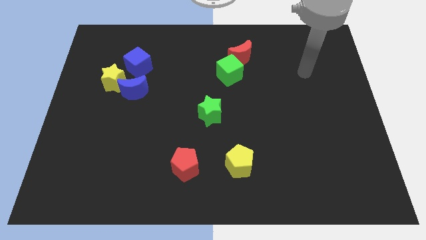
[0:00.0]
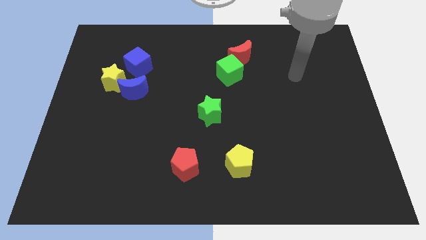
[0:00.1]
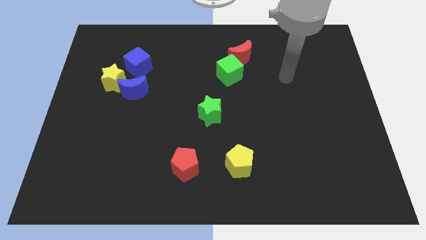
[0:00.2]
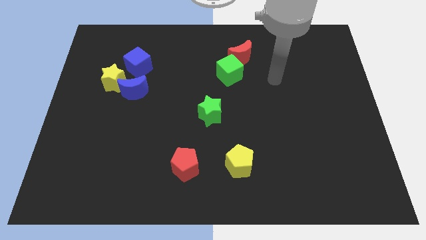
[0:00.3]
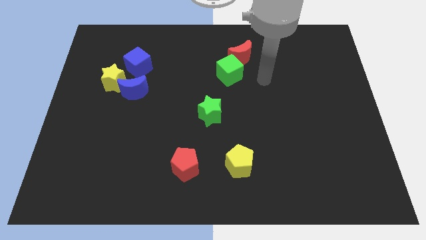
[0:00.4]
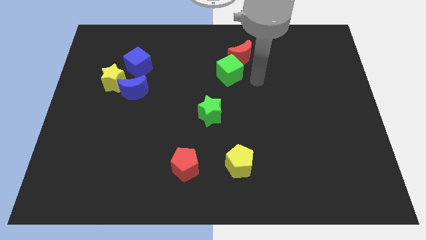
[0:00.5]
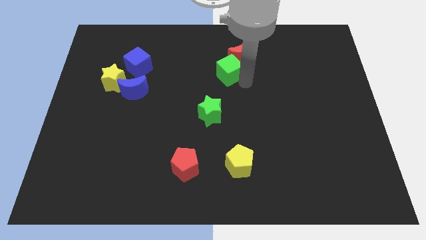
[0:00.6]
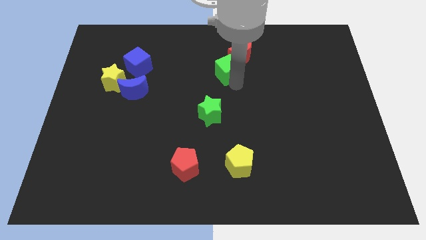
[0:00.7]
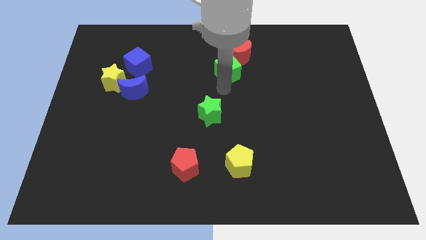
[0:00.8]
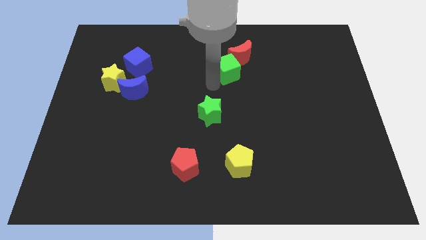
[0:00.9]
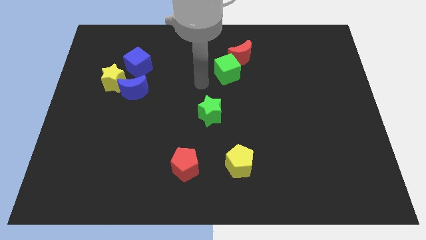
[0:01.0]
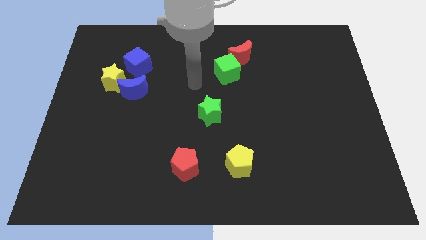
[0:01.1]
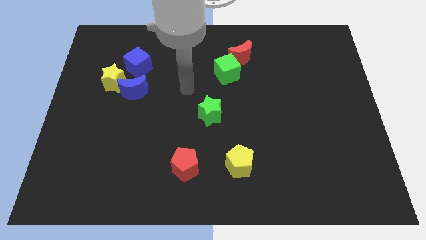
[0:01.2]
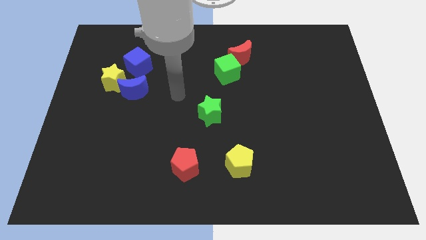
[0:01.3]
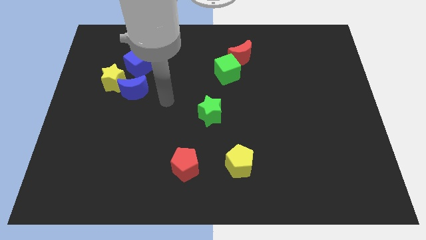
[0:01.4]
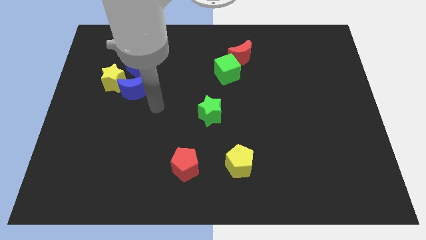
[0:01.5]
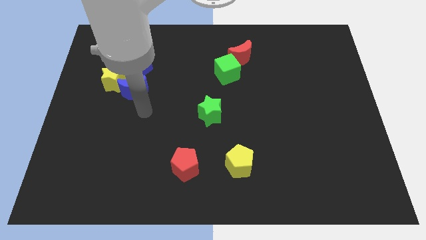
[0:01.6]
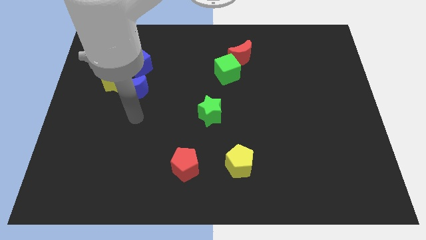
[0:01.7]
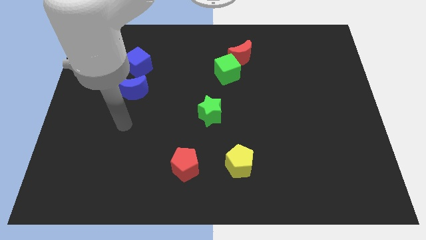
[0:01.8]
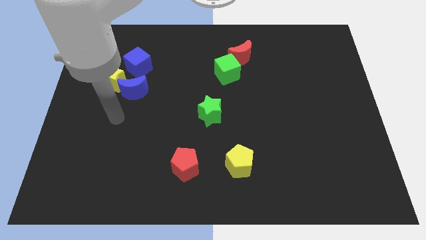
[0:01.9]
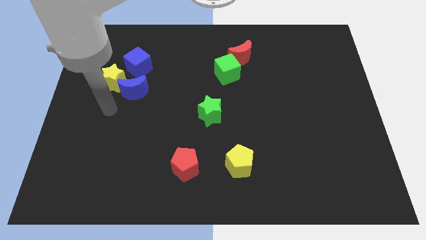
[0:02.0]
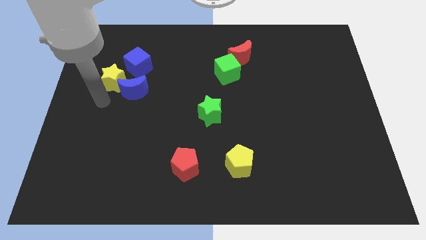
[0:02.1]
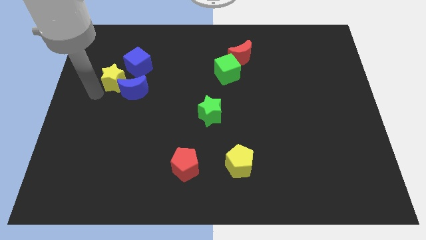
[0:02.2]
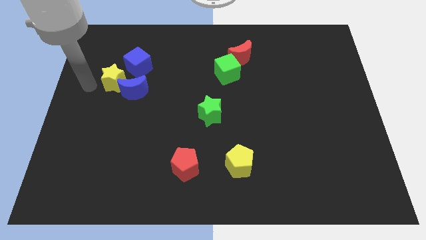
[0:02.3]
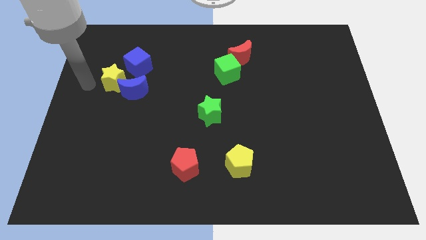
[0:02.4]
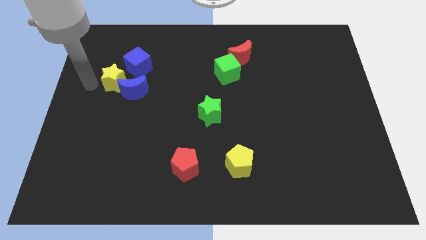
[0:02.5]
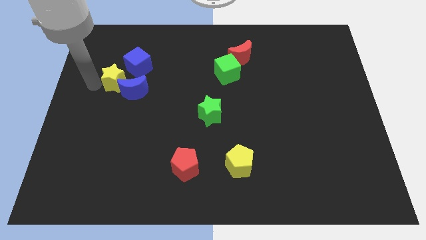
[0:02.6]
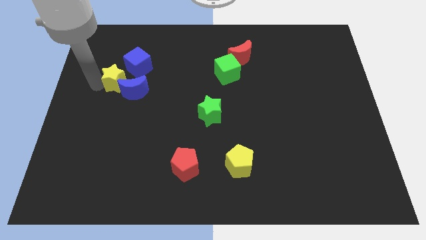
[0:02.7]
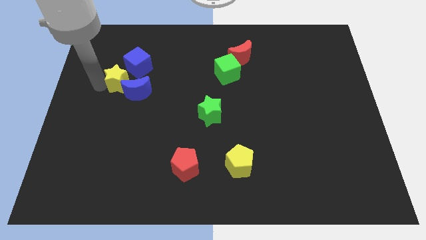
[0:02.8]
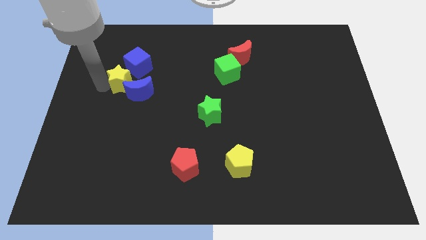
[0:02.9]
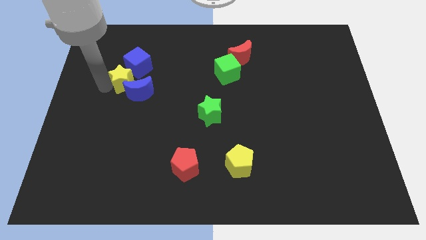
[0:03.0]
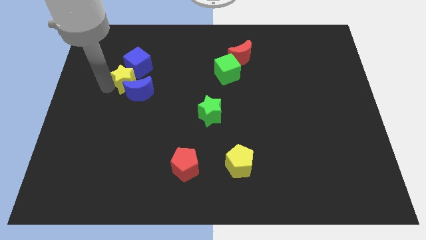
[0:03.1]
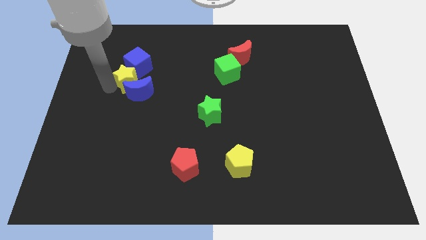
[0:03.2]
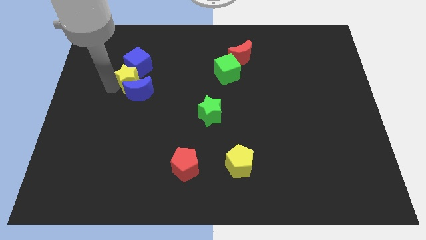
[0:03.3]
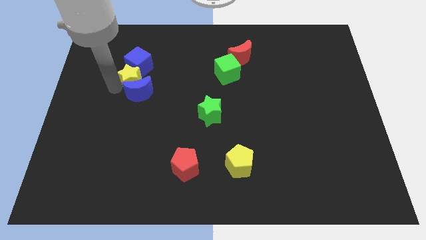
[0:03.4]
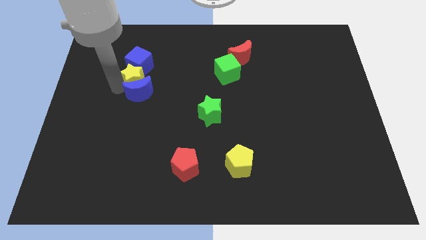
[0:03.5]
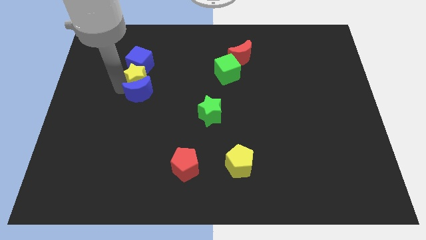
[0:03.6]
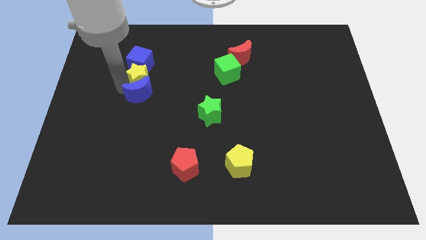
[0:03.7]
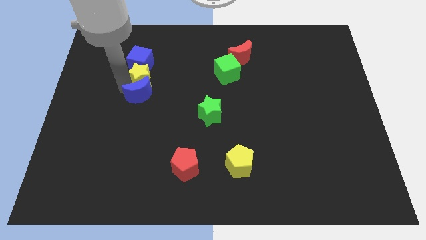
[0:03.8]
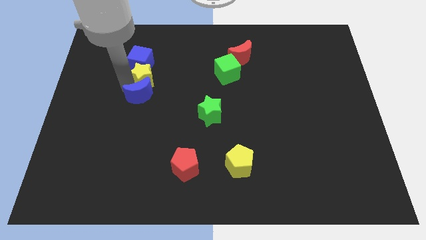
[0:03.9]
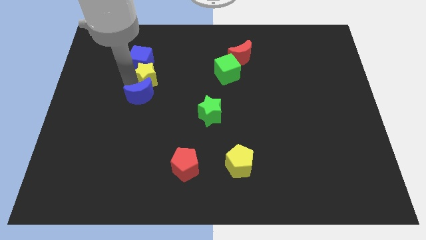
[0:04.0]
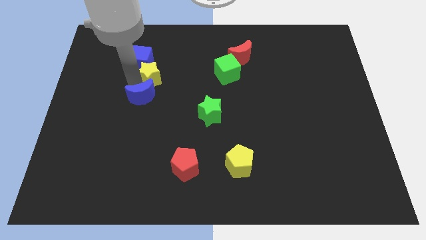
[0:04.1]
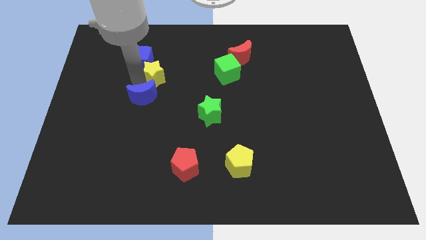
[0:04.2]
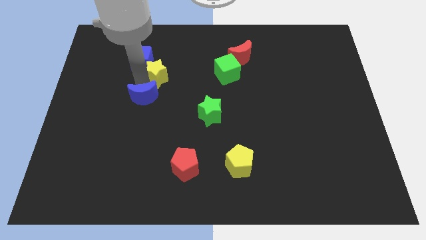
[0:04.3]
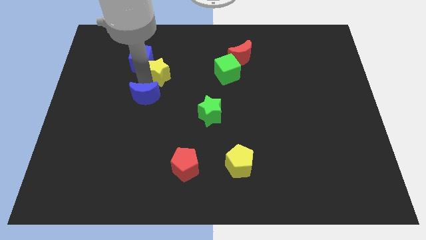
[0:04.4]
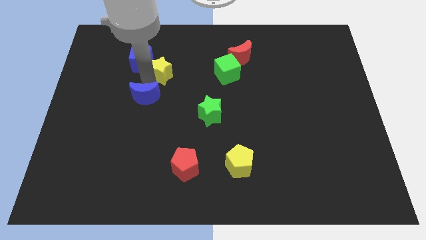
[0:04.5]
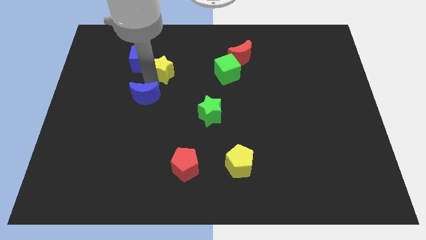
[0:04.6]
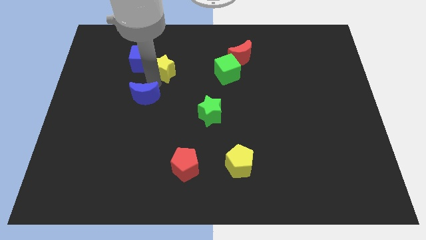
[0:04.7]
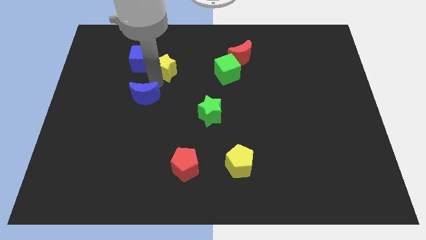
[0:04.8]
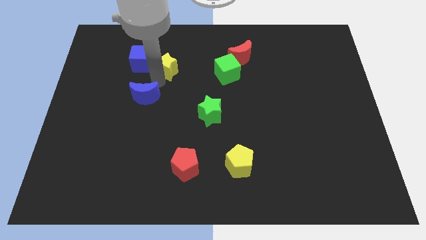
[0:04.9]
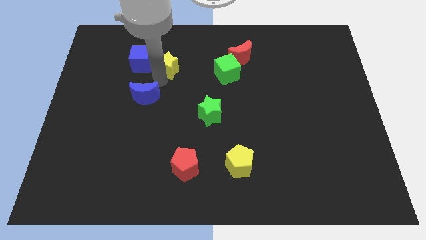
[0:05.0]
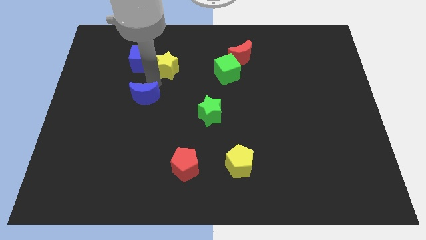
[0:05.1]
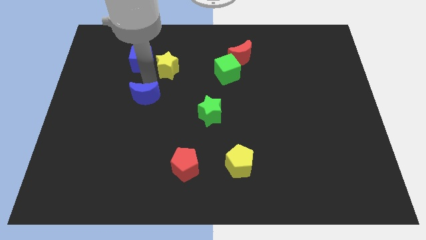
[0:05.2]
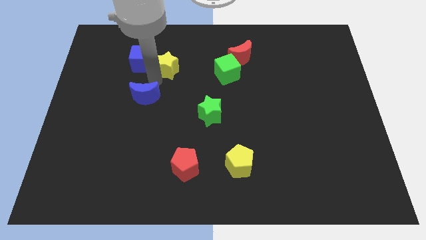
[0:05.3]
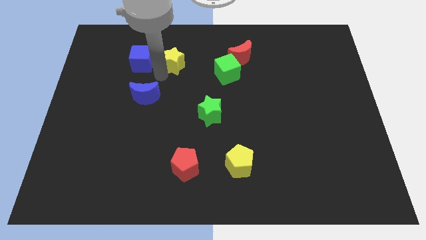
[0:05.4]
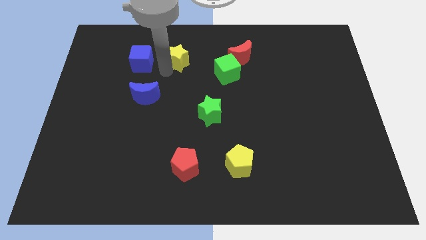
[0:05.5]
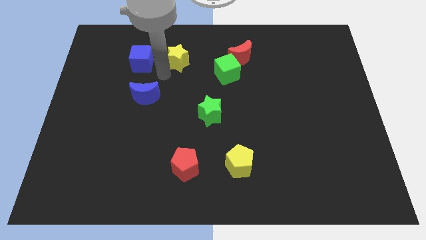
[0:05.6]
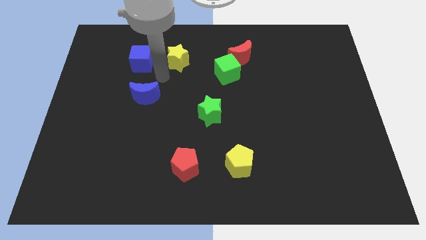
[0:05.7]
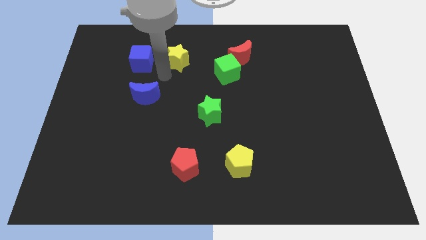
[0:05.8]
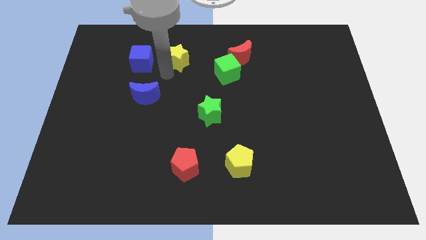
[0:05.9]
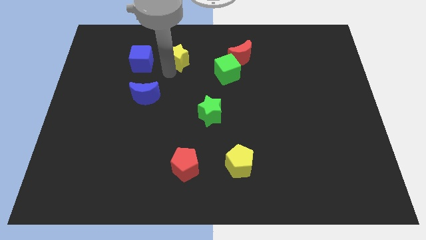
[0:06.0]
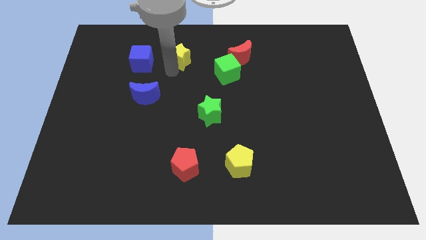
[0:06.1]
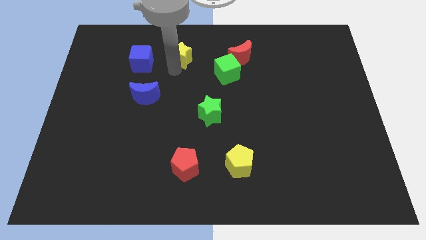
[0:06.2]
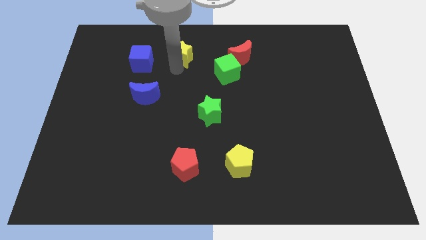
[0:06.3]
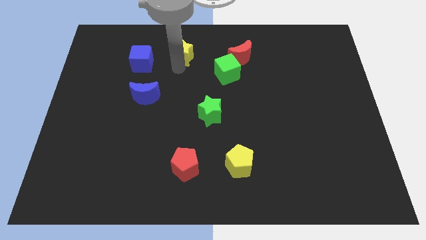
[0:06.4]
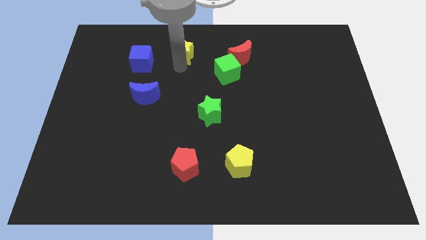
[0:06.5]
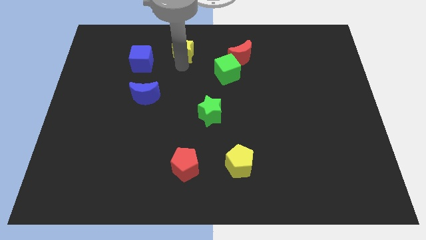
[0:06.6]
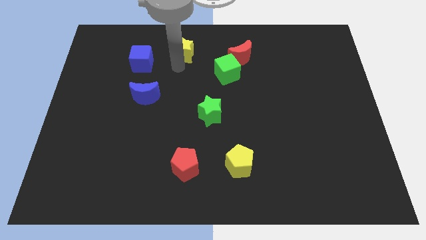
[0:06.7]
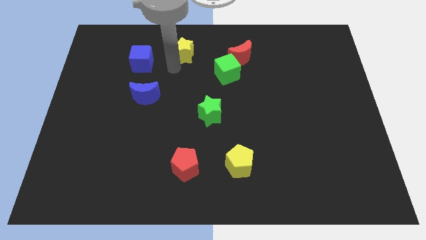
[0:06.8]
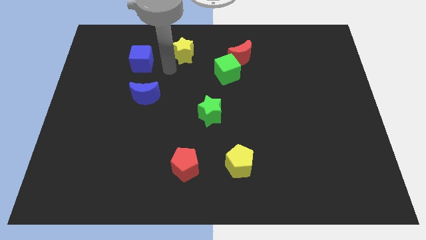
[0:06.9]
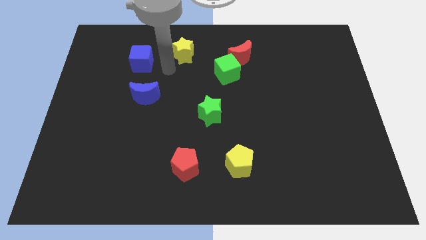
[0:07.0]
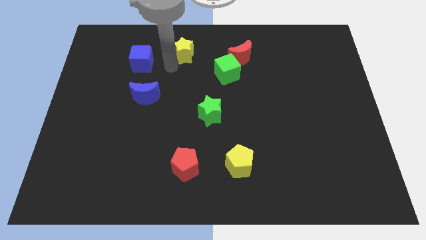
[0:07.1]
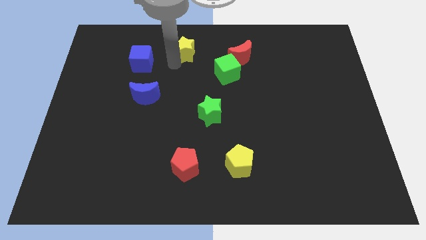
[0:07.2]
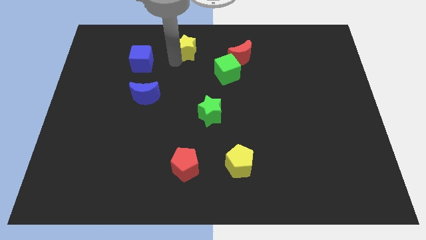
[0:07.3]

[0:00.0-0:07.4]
move the yellow star to the top

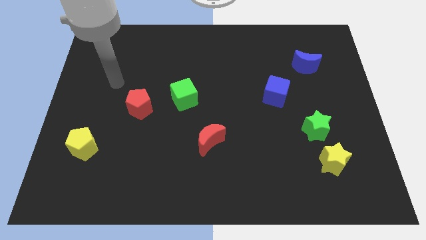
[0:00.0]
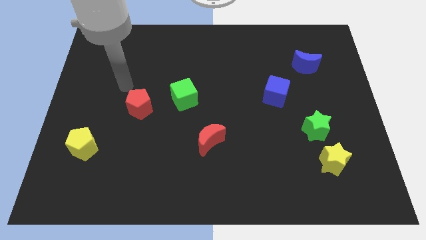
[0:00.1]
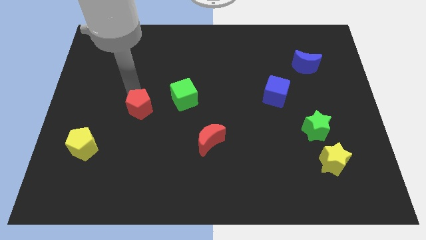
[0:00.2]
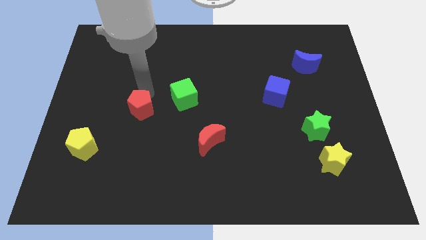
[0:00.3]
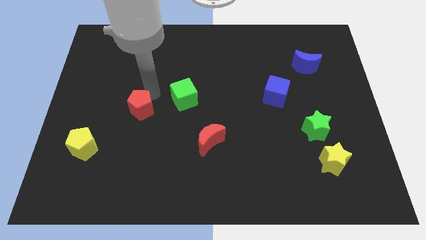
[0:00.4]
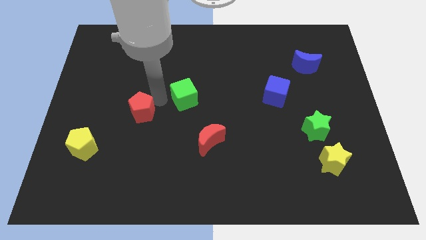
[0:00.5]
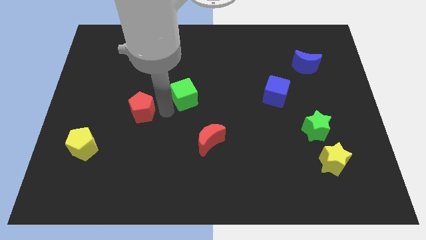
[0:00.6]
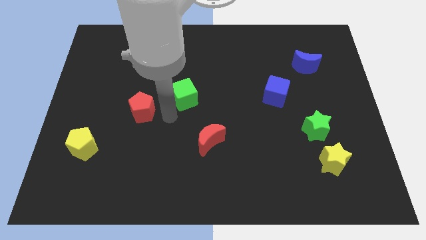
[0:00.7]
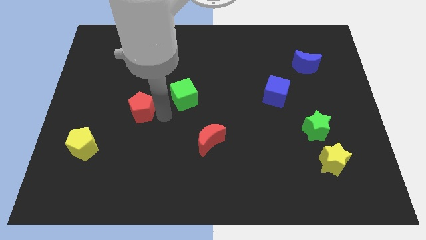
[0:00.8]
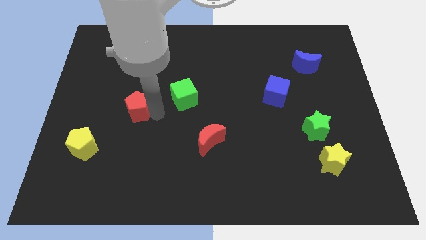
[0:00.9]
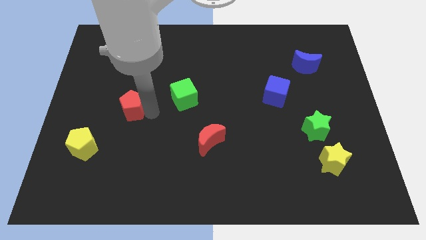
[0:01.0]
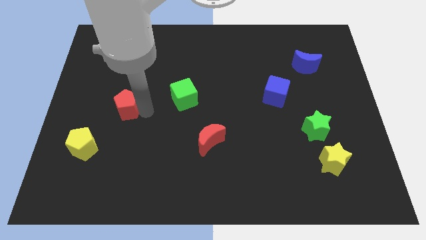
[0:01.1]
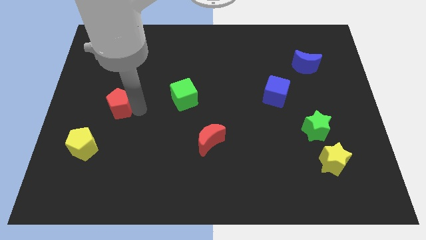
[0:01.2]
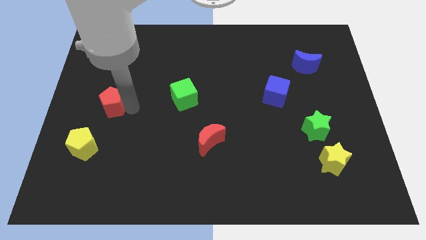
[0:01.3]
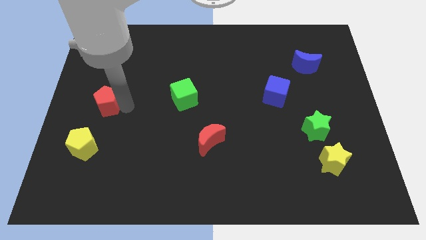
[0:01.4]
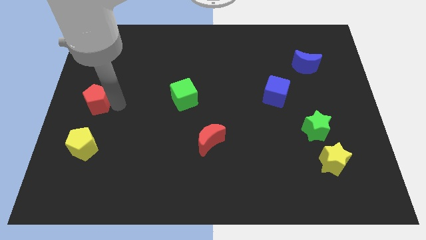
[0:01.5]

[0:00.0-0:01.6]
push the red pentagon to the left side of the board
